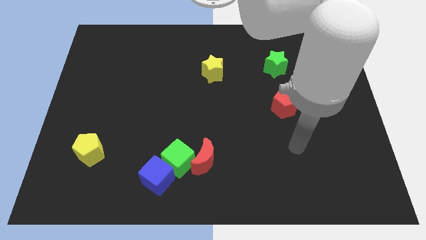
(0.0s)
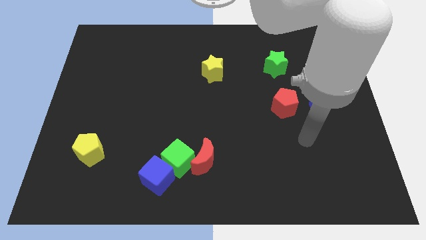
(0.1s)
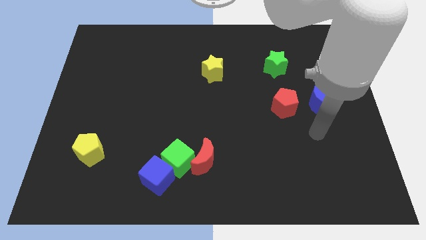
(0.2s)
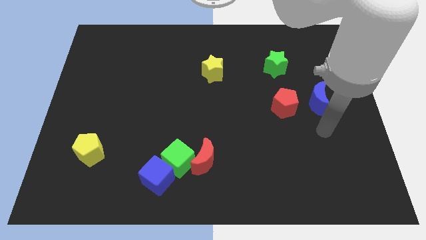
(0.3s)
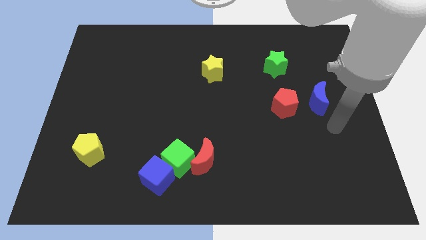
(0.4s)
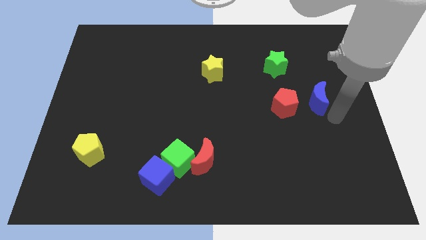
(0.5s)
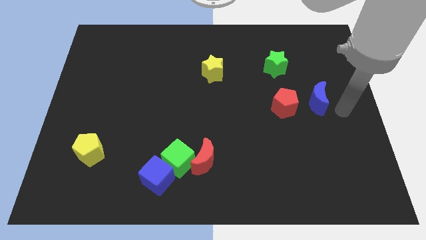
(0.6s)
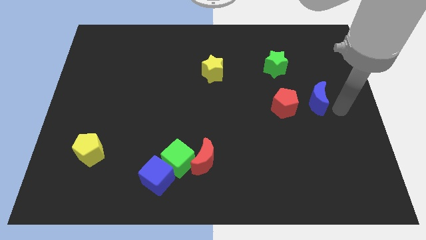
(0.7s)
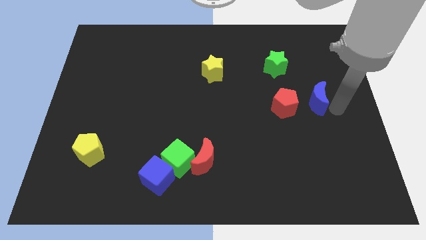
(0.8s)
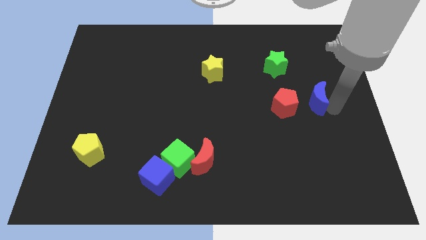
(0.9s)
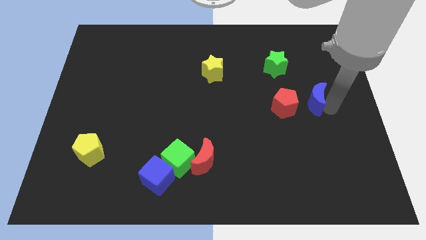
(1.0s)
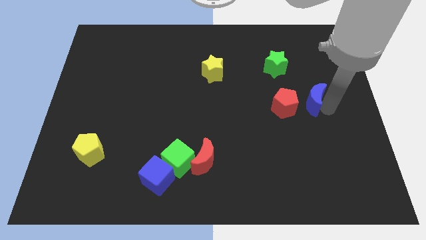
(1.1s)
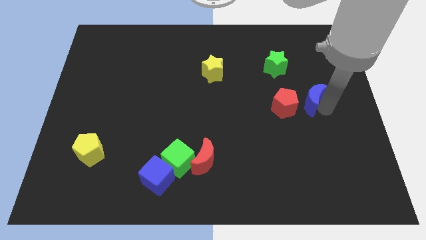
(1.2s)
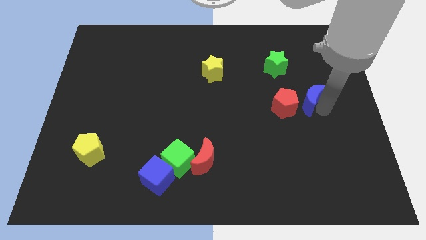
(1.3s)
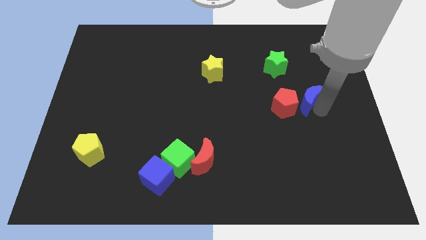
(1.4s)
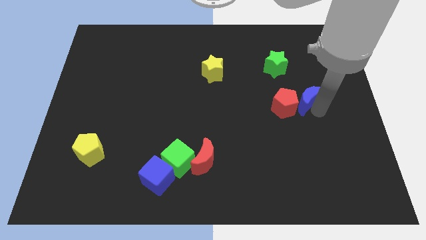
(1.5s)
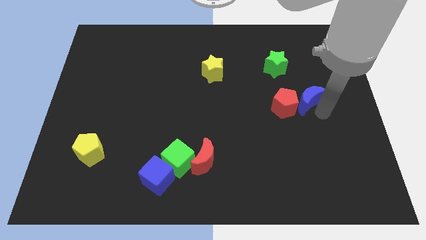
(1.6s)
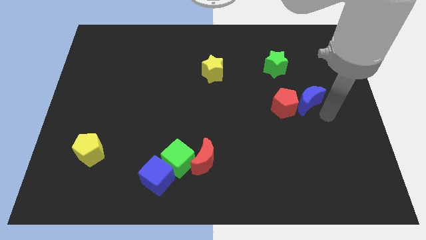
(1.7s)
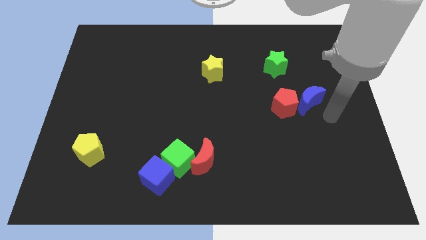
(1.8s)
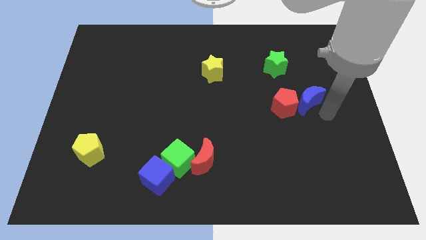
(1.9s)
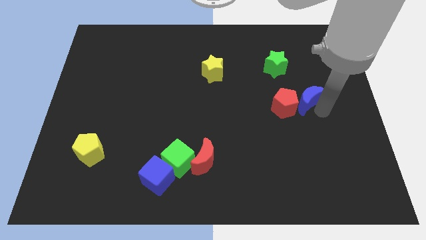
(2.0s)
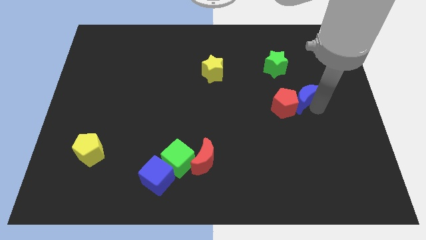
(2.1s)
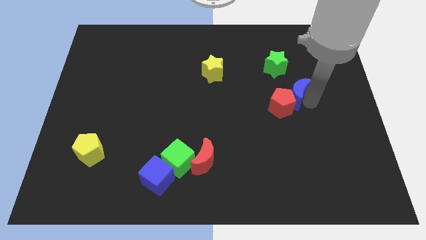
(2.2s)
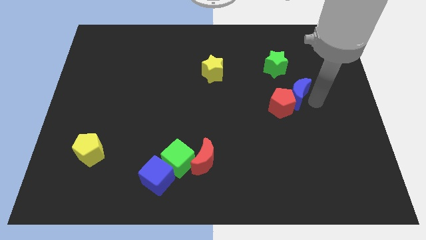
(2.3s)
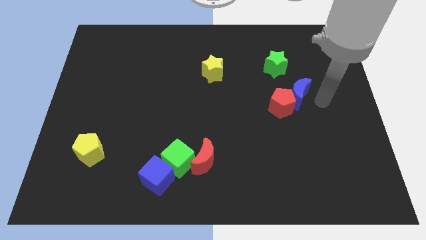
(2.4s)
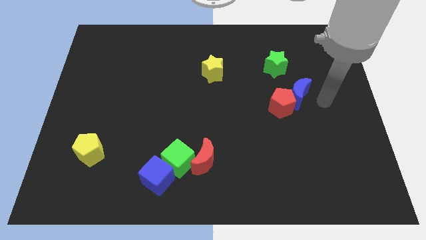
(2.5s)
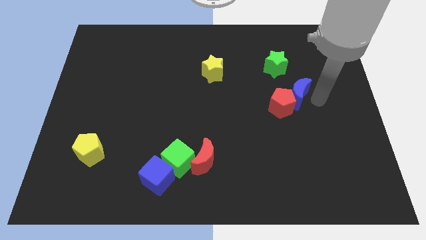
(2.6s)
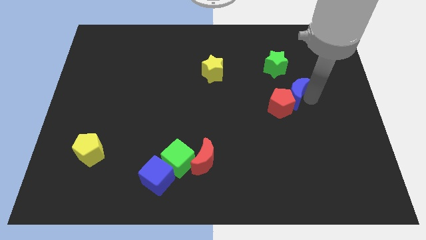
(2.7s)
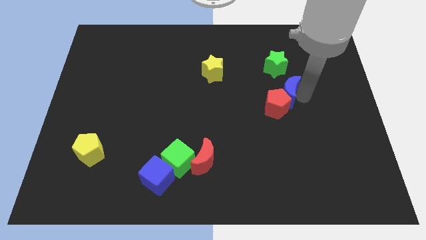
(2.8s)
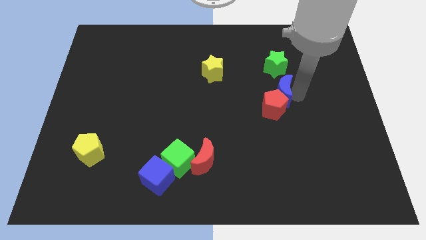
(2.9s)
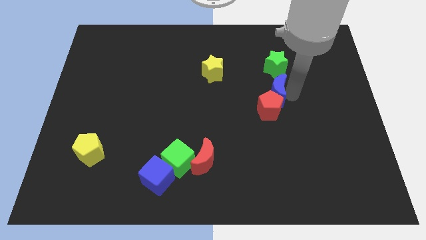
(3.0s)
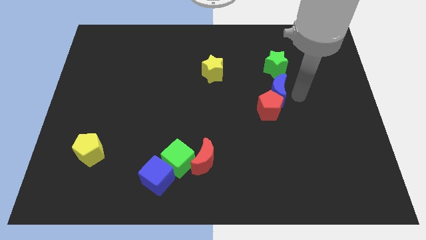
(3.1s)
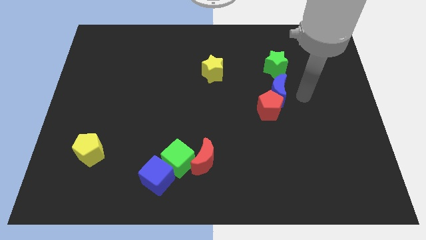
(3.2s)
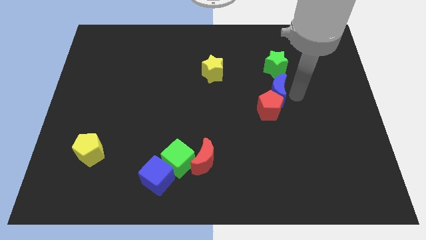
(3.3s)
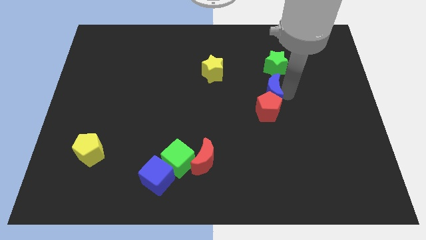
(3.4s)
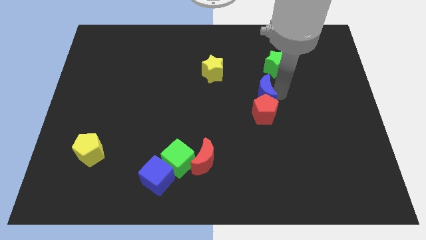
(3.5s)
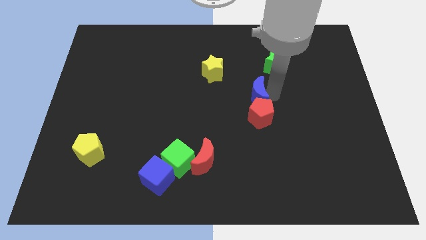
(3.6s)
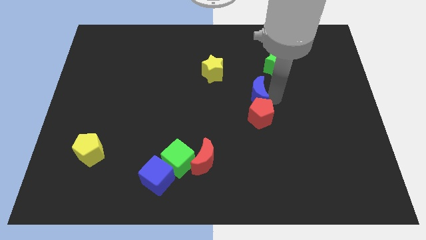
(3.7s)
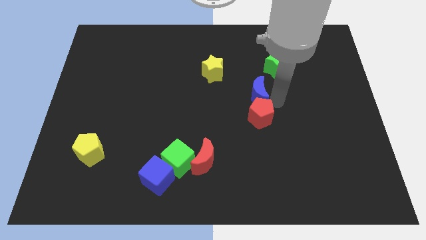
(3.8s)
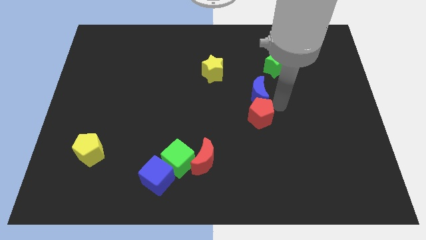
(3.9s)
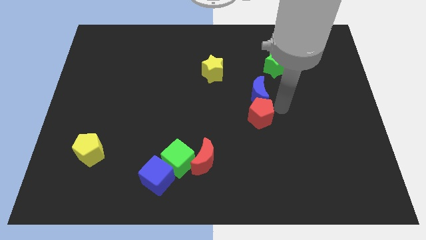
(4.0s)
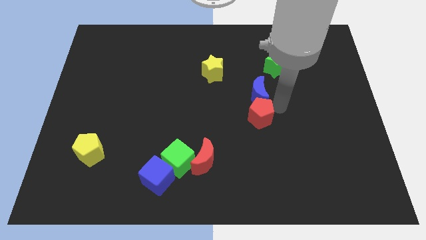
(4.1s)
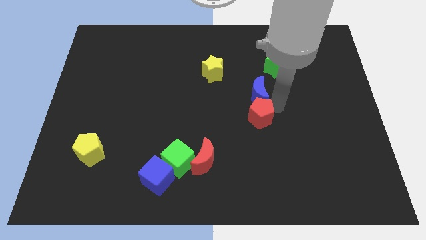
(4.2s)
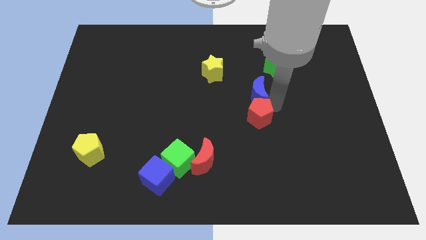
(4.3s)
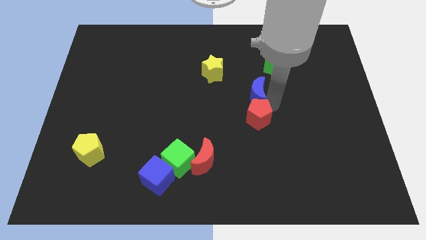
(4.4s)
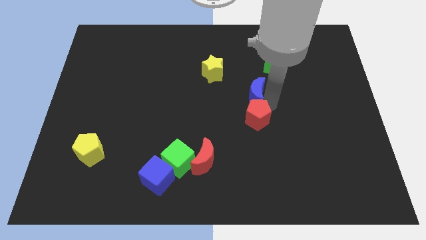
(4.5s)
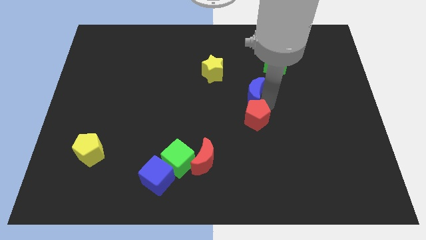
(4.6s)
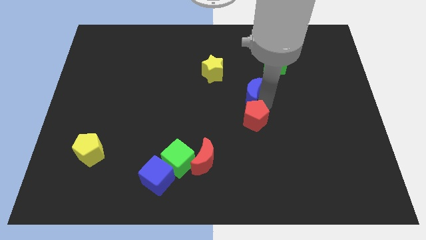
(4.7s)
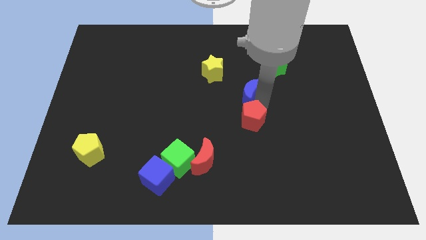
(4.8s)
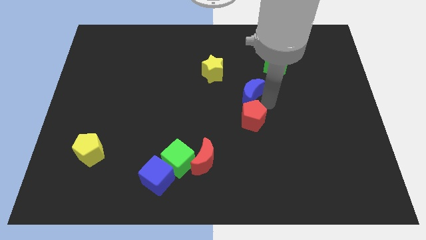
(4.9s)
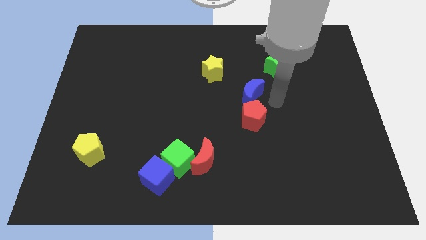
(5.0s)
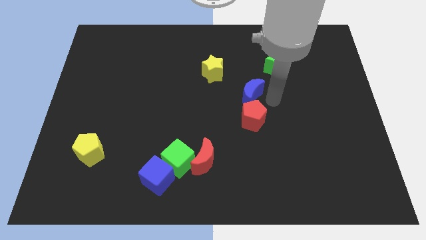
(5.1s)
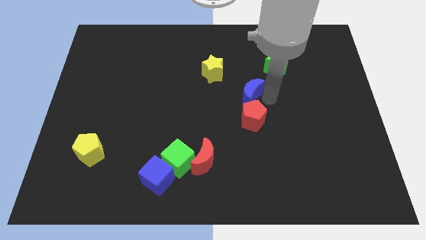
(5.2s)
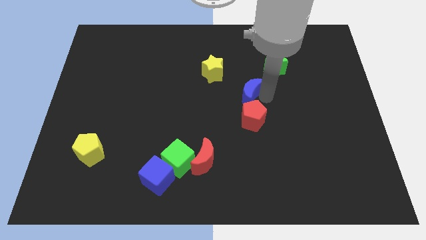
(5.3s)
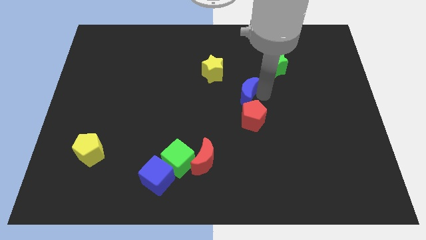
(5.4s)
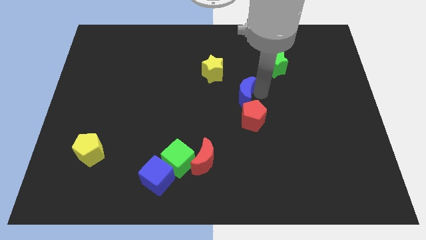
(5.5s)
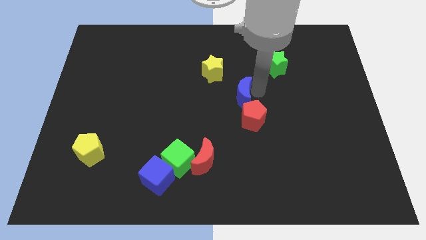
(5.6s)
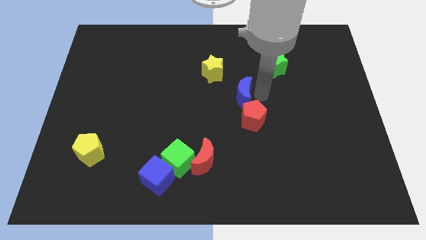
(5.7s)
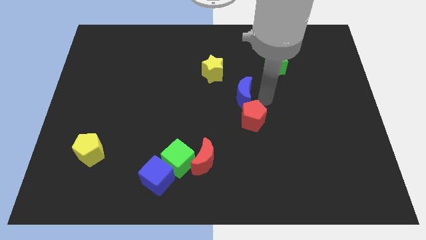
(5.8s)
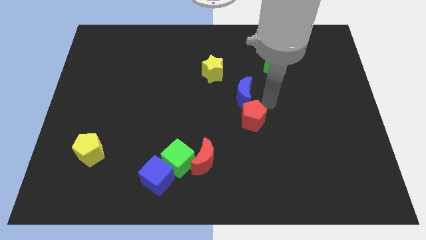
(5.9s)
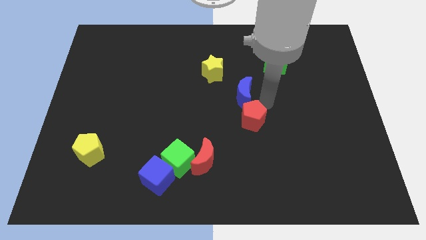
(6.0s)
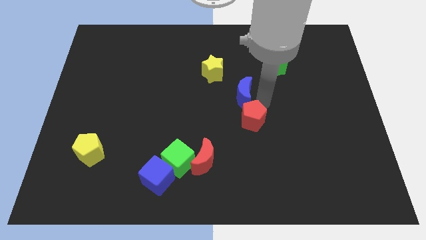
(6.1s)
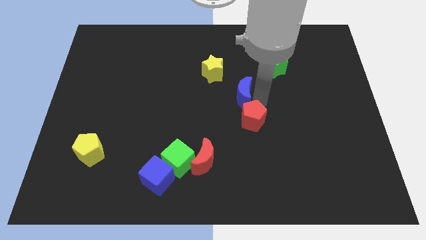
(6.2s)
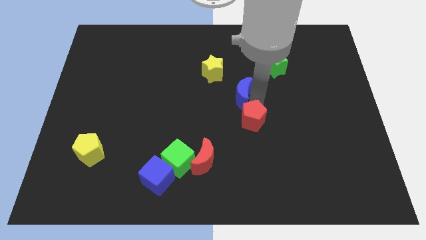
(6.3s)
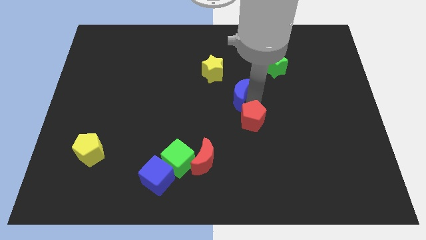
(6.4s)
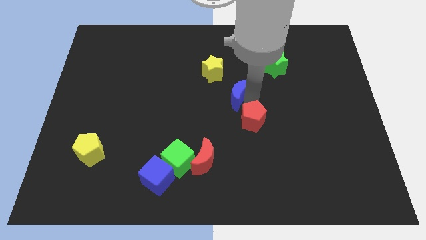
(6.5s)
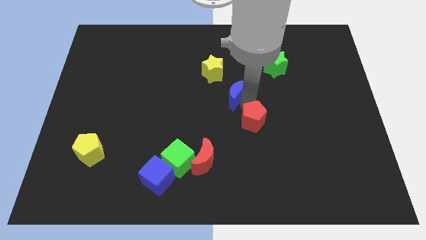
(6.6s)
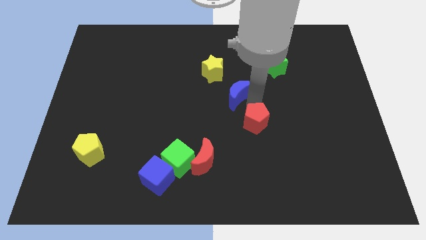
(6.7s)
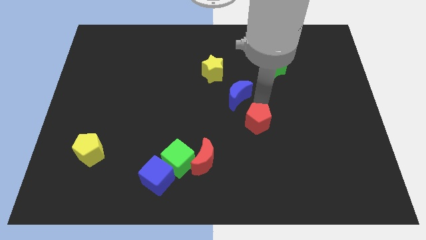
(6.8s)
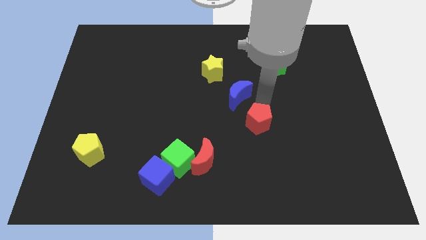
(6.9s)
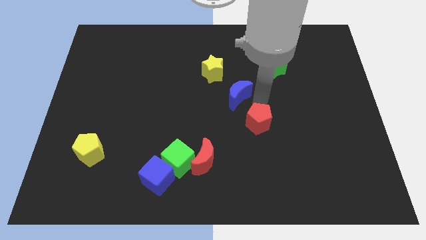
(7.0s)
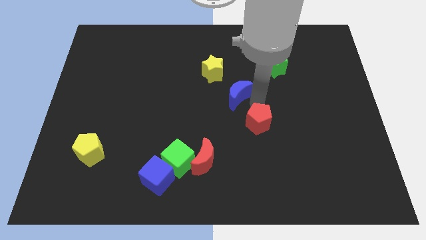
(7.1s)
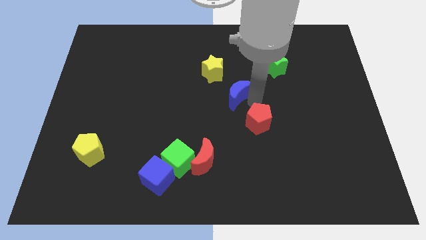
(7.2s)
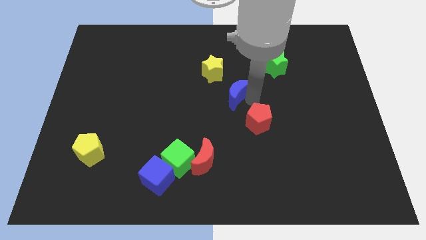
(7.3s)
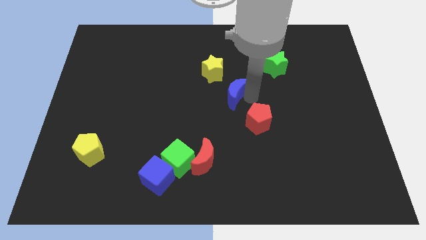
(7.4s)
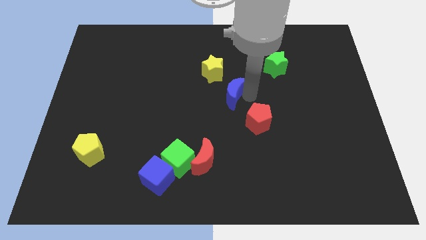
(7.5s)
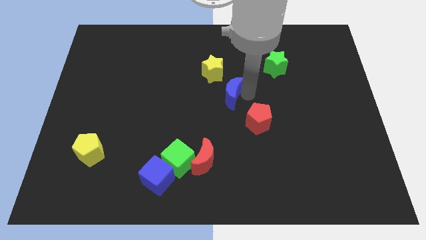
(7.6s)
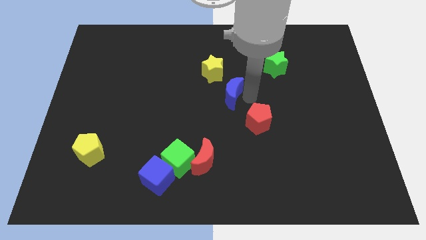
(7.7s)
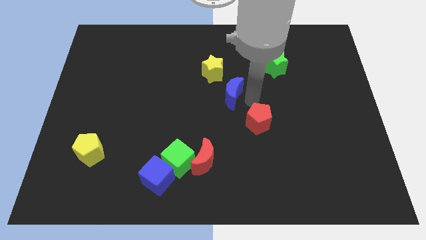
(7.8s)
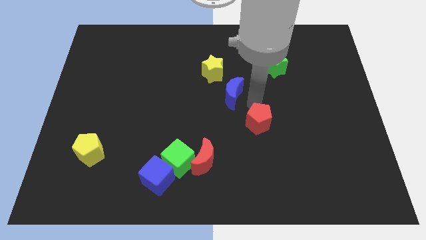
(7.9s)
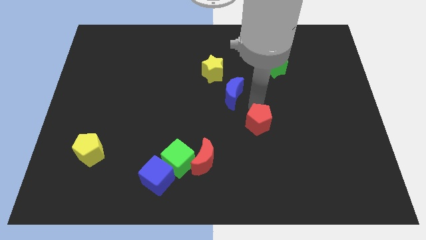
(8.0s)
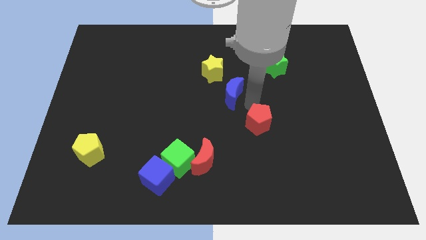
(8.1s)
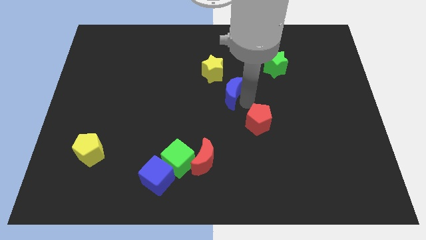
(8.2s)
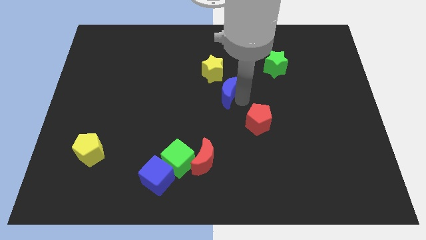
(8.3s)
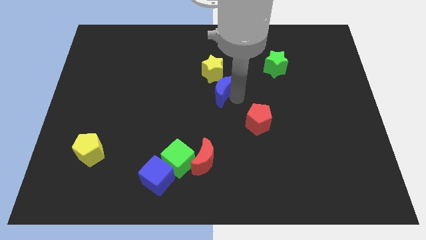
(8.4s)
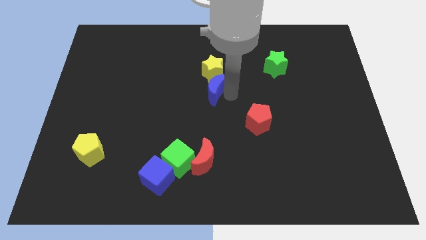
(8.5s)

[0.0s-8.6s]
push the blue moon diagonally down and to the left of the yellow star
